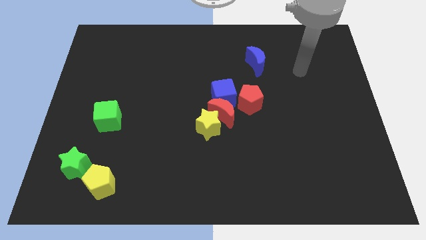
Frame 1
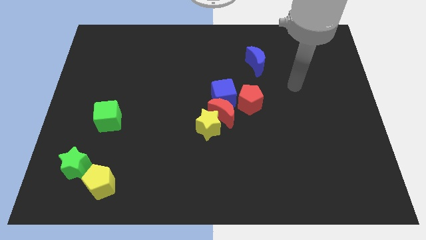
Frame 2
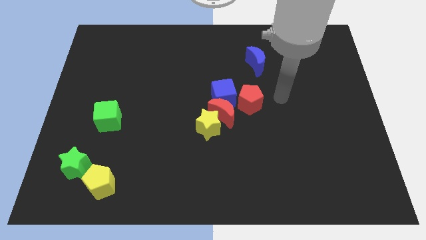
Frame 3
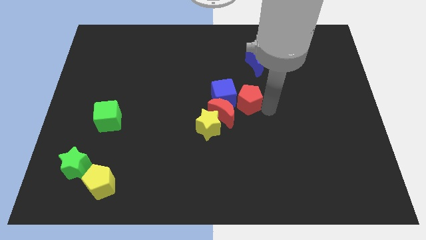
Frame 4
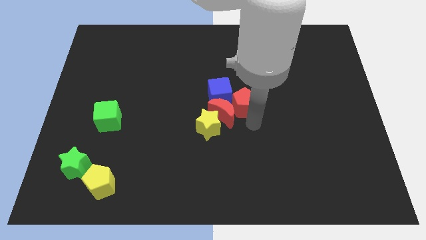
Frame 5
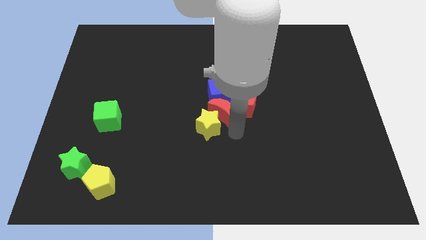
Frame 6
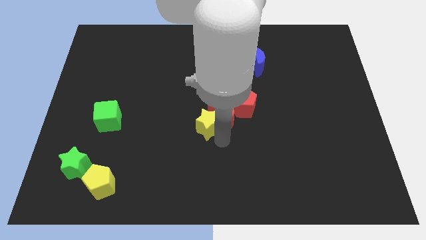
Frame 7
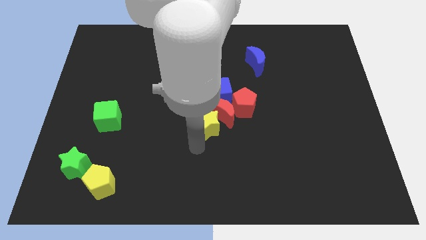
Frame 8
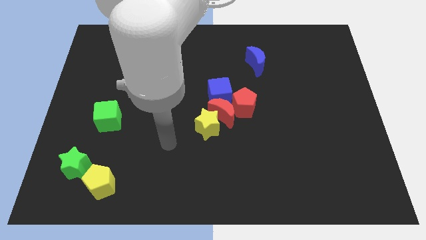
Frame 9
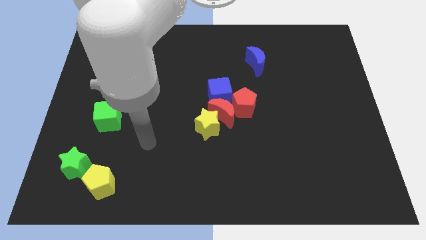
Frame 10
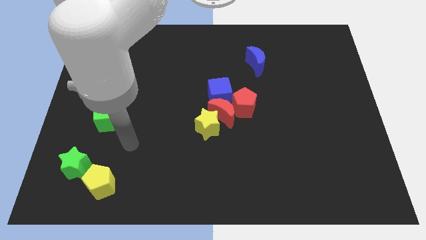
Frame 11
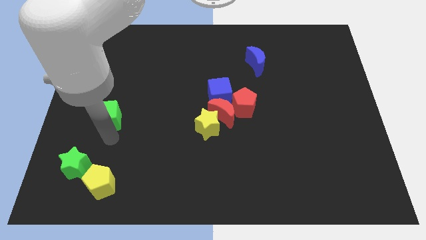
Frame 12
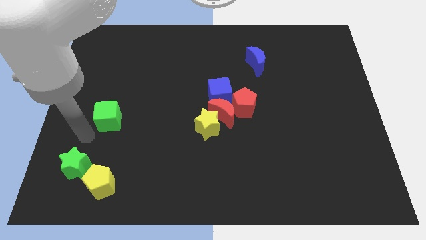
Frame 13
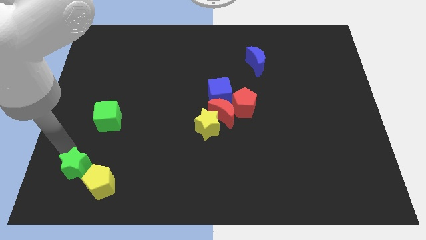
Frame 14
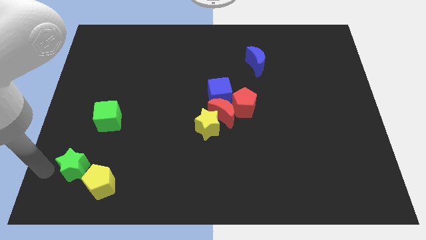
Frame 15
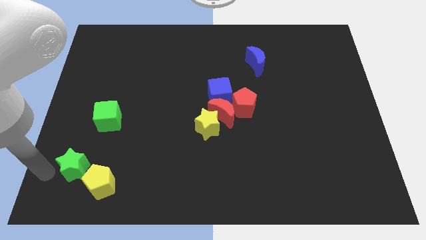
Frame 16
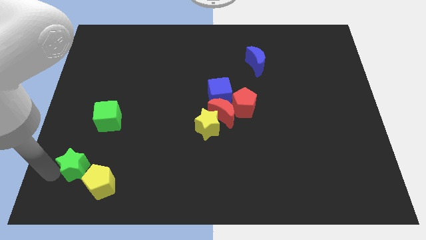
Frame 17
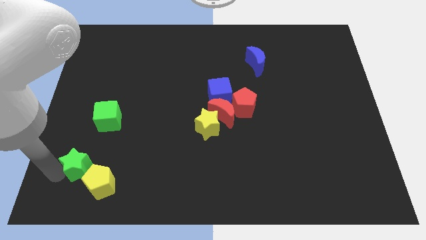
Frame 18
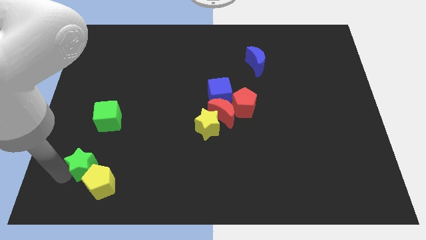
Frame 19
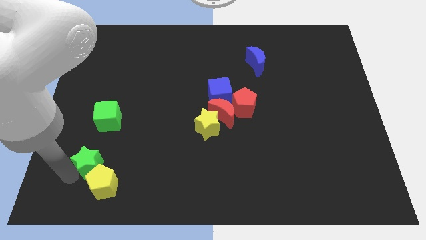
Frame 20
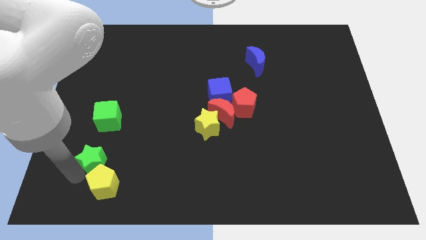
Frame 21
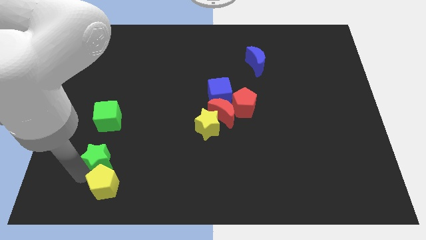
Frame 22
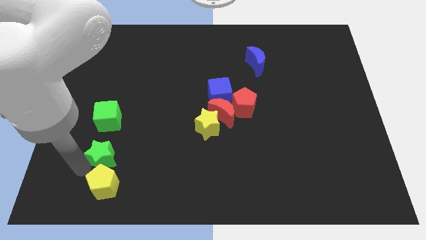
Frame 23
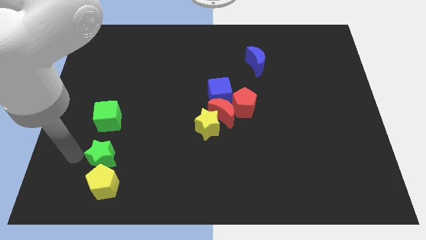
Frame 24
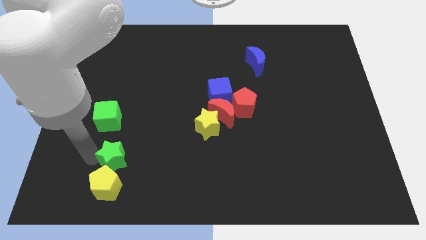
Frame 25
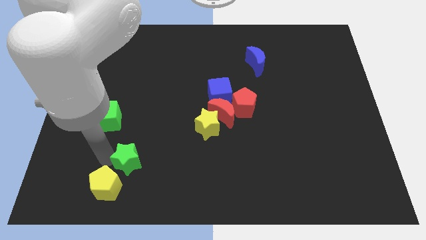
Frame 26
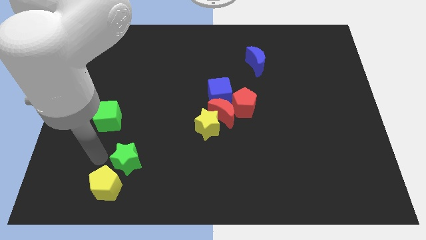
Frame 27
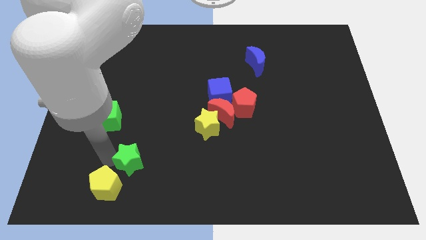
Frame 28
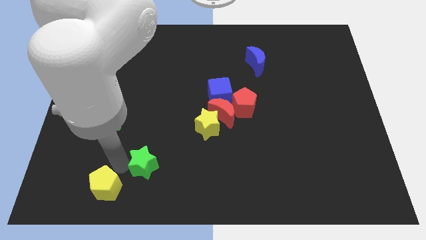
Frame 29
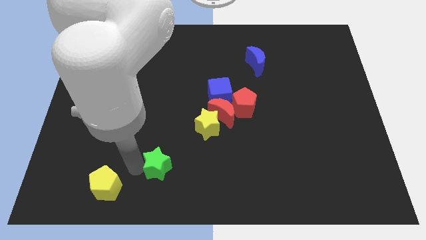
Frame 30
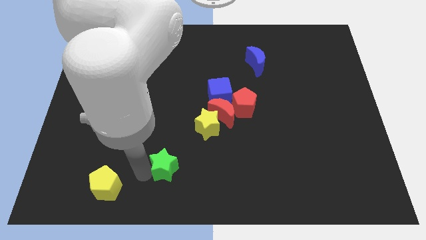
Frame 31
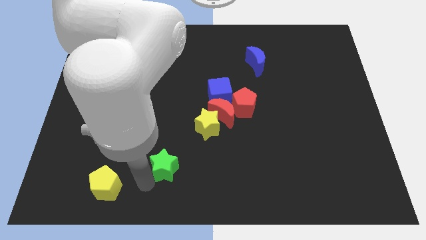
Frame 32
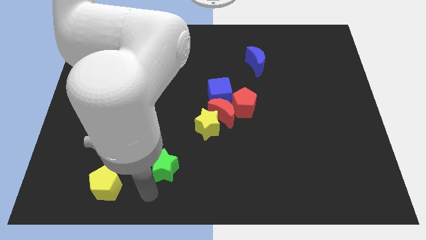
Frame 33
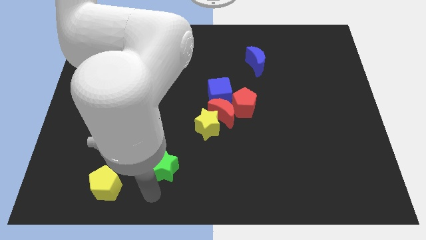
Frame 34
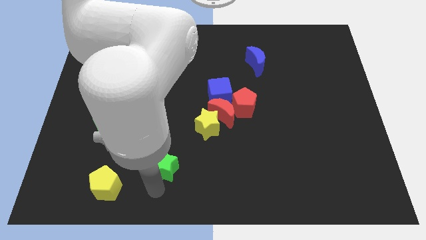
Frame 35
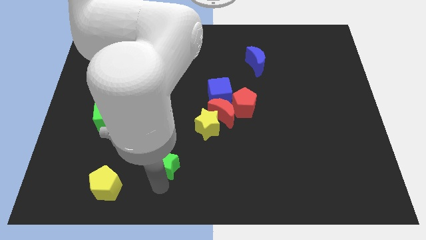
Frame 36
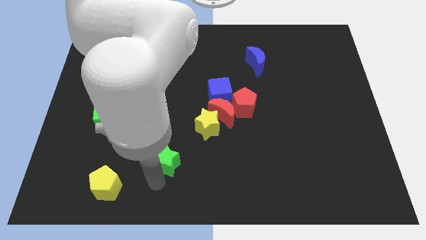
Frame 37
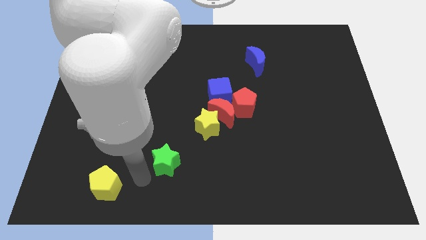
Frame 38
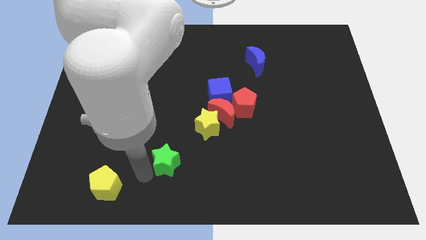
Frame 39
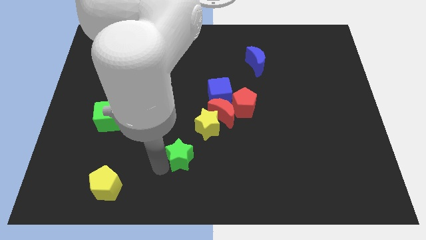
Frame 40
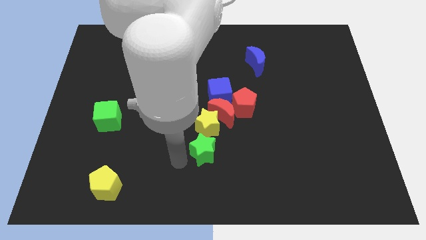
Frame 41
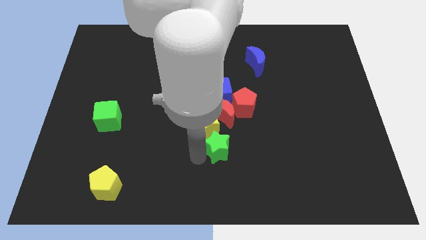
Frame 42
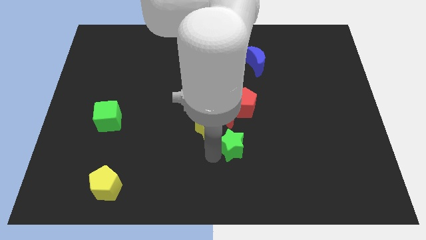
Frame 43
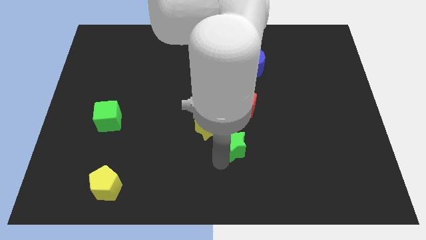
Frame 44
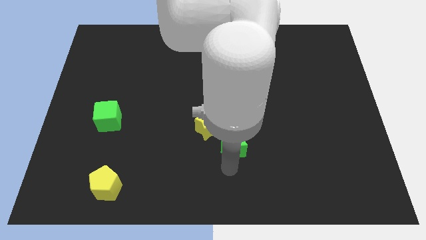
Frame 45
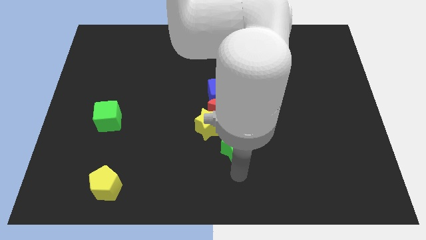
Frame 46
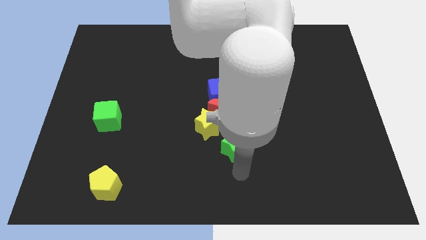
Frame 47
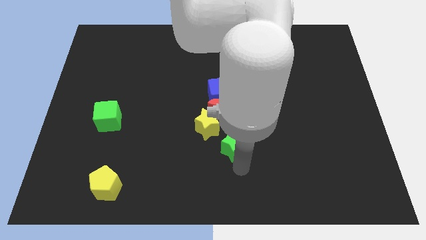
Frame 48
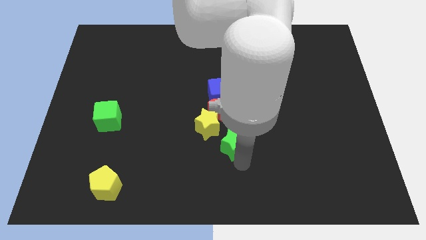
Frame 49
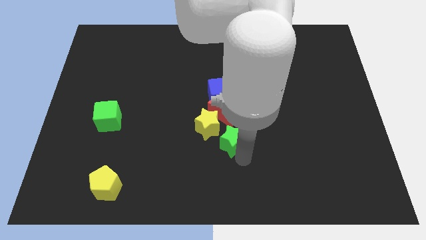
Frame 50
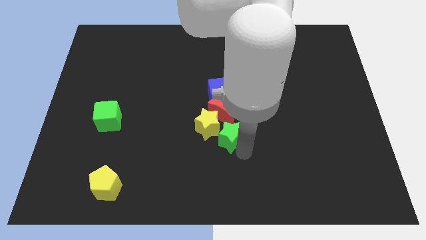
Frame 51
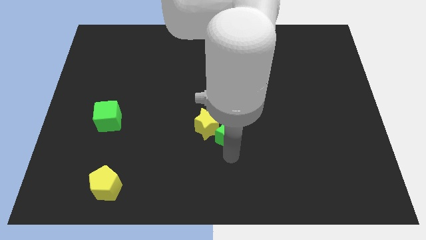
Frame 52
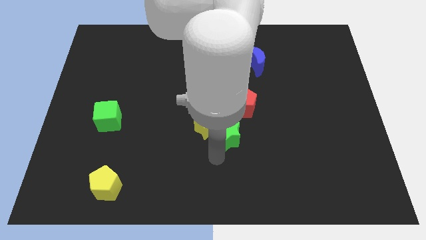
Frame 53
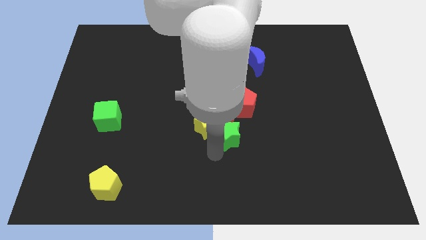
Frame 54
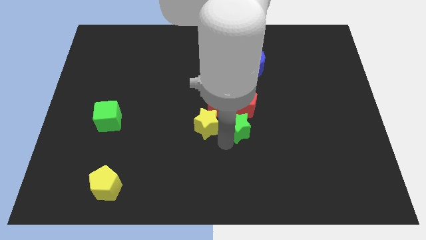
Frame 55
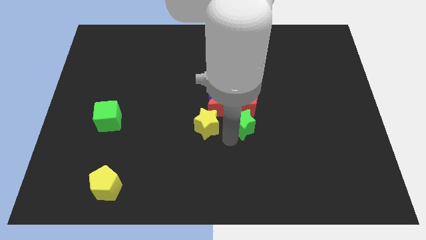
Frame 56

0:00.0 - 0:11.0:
slide the green star next to the red pentagon
